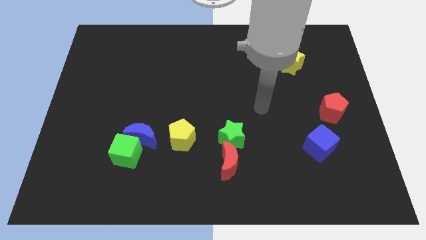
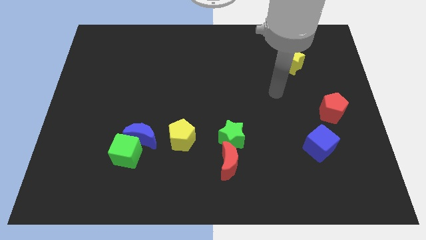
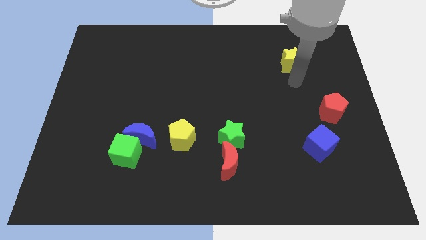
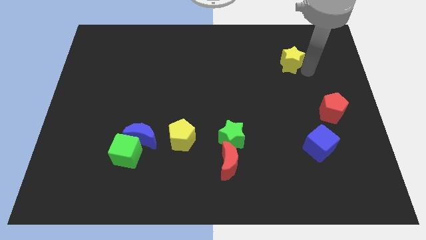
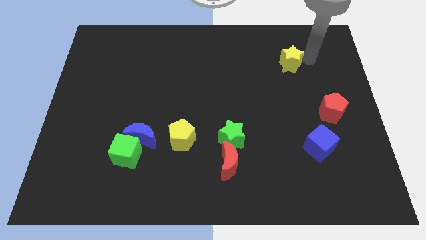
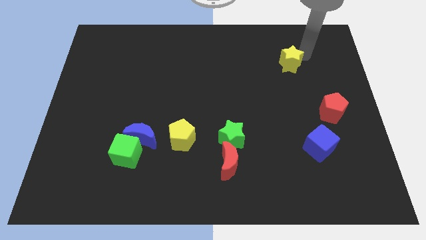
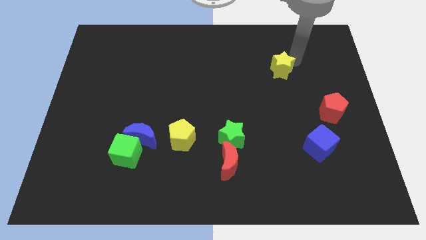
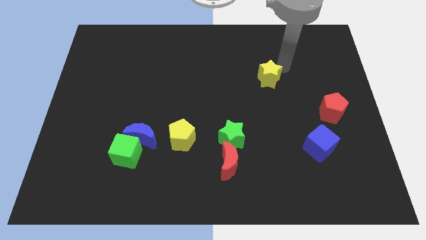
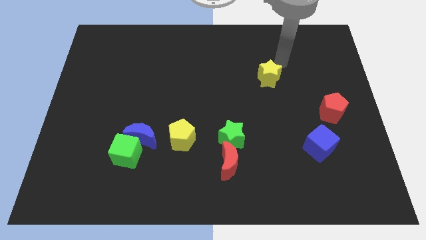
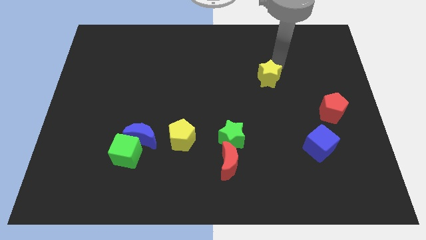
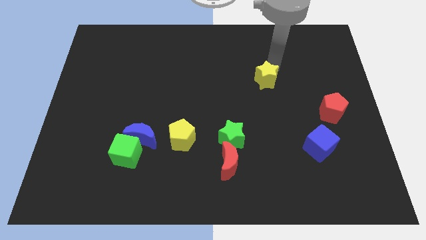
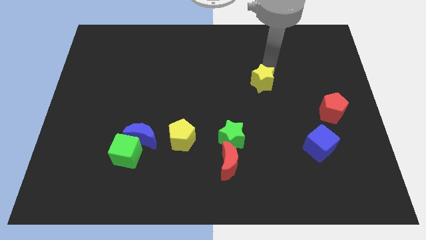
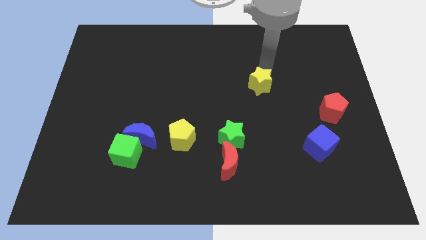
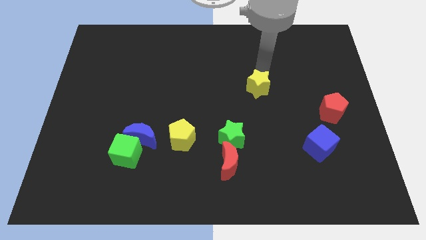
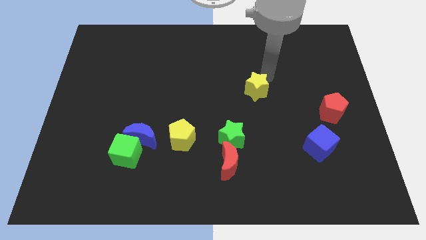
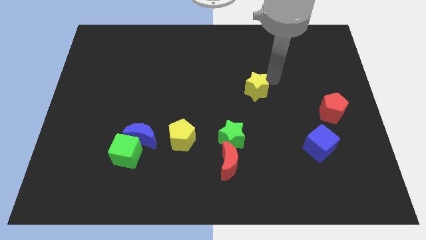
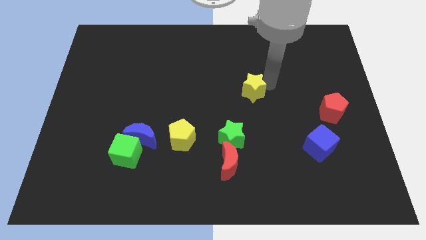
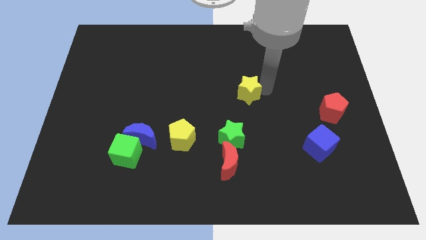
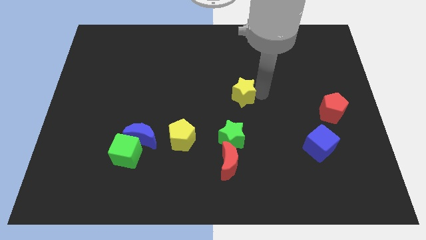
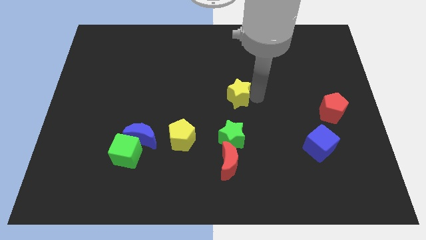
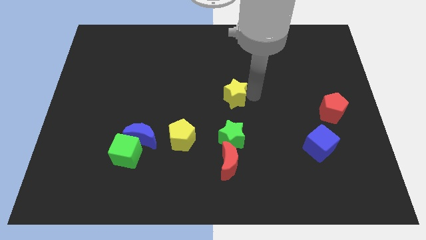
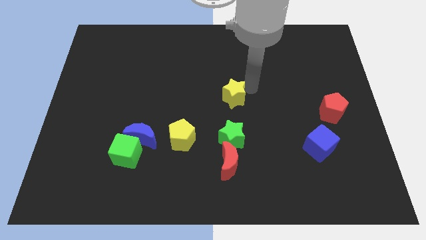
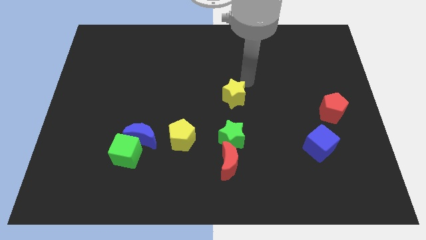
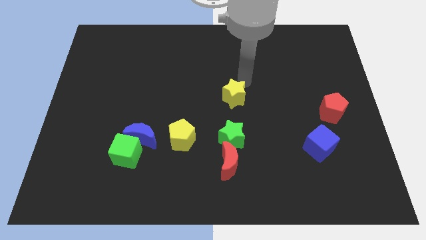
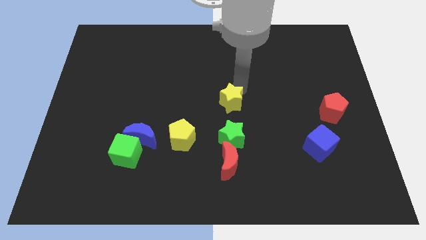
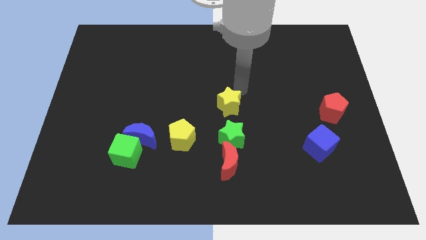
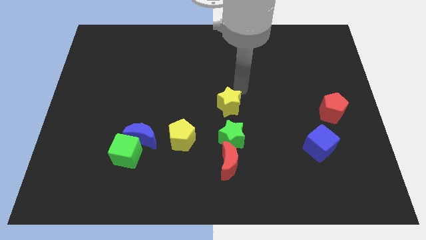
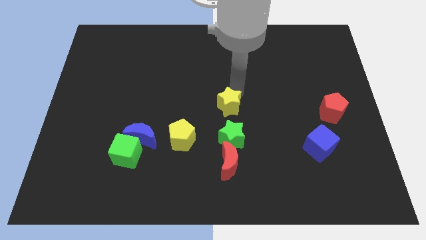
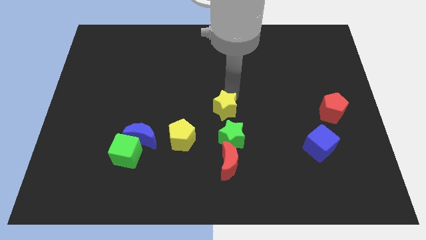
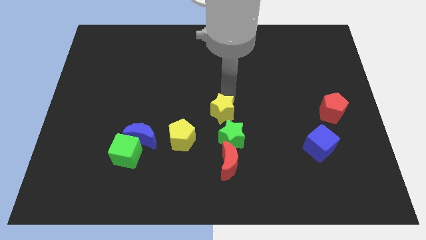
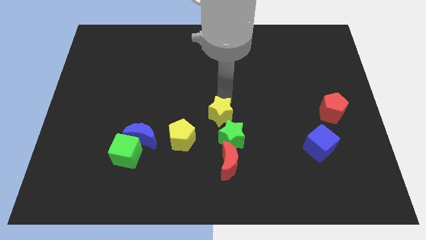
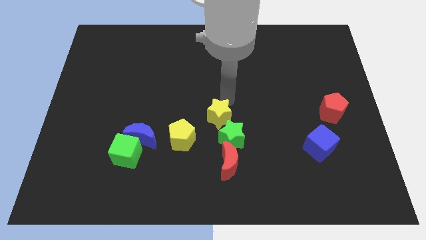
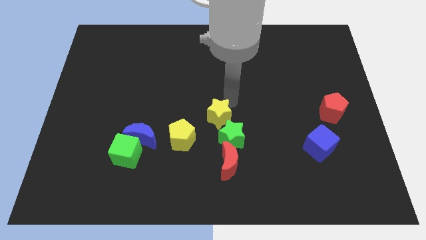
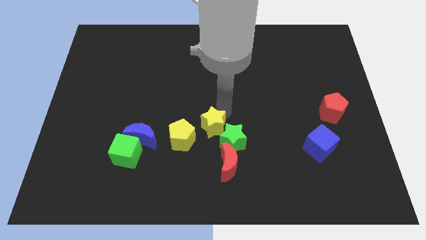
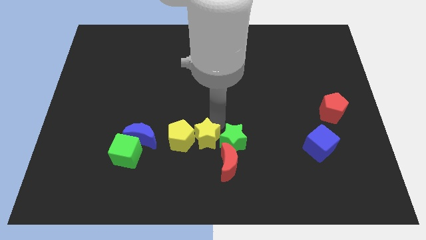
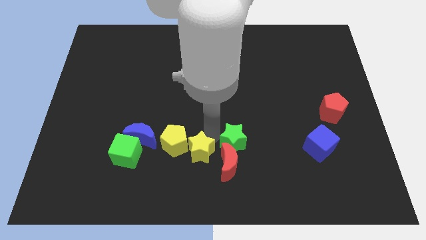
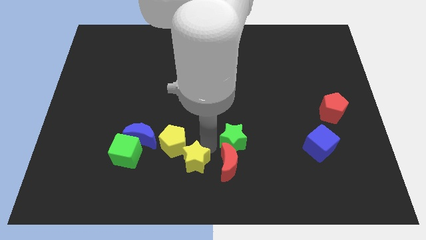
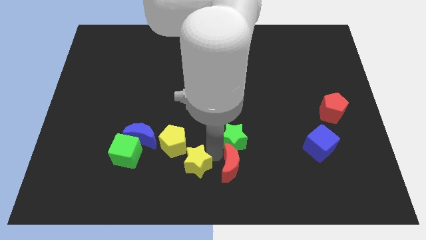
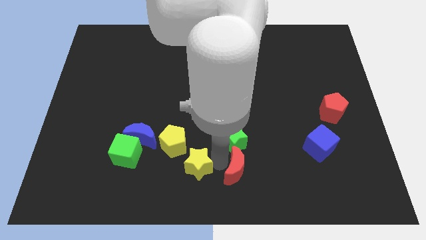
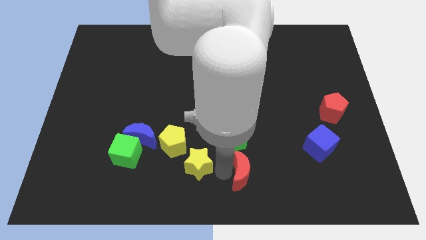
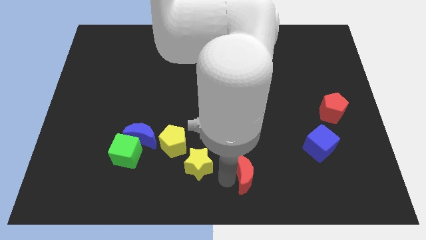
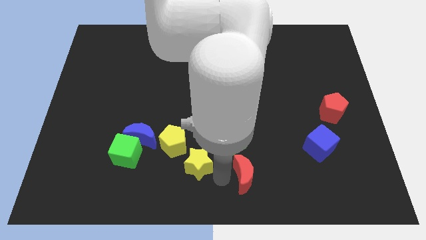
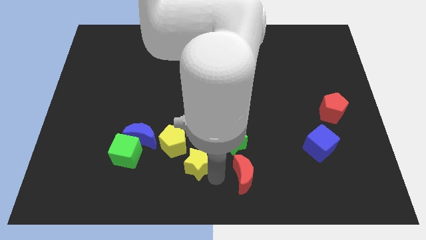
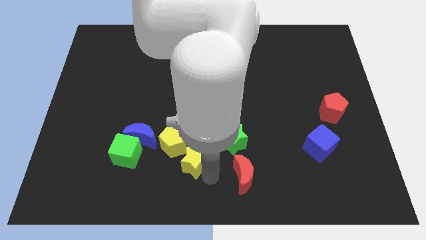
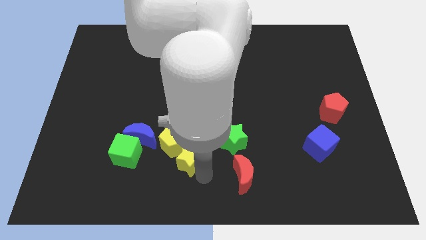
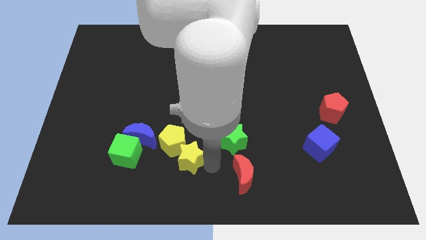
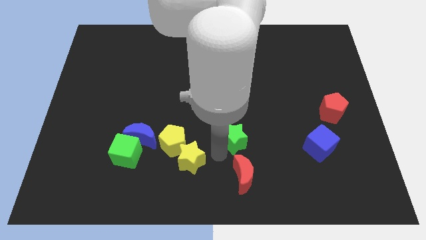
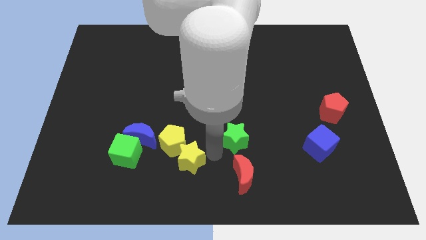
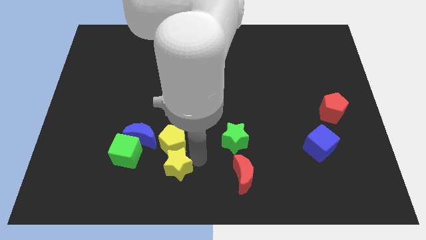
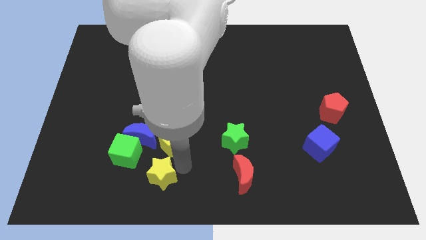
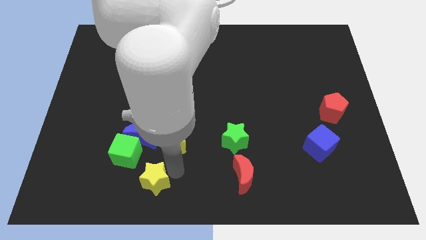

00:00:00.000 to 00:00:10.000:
push the yellow star below the blue moon

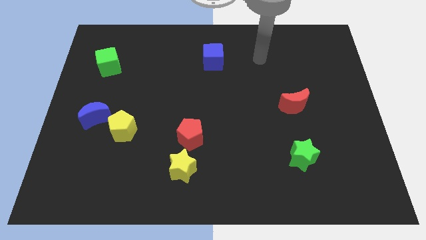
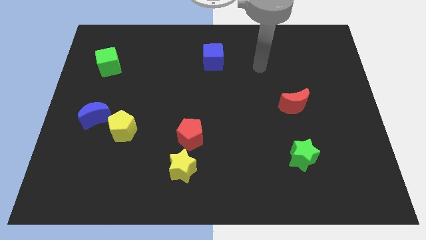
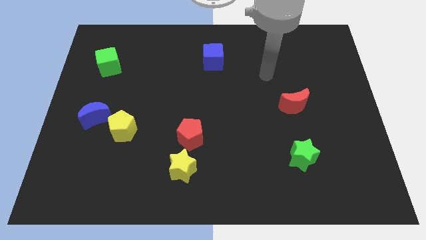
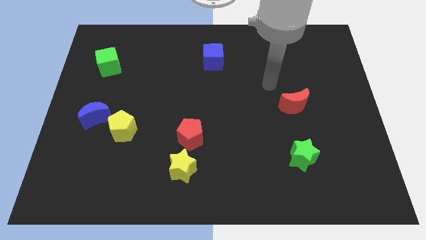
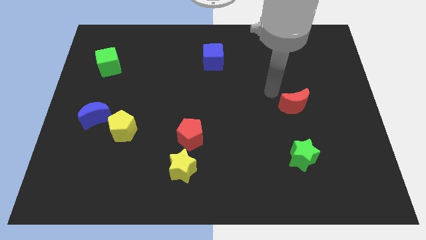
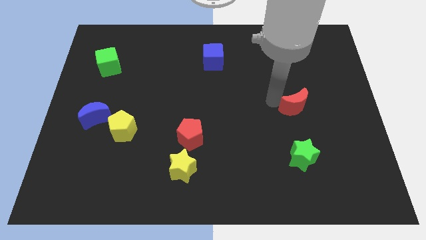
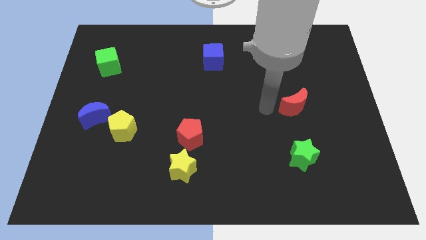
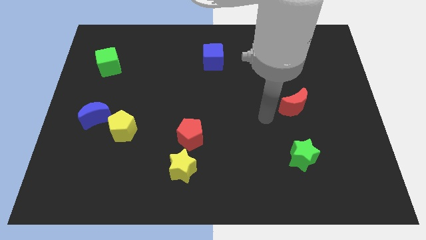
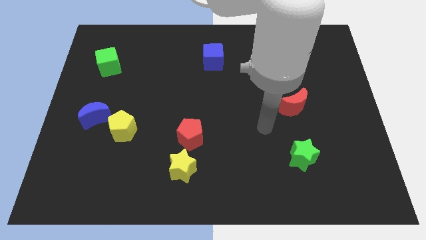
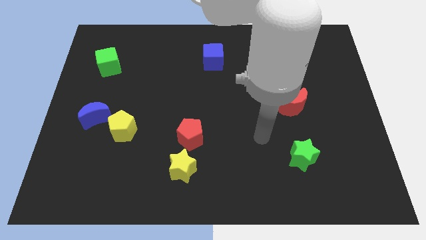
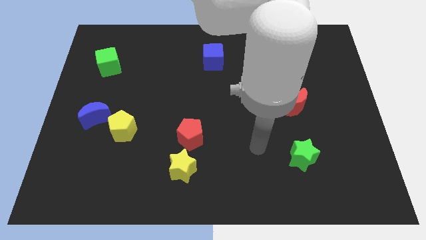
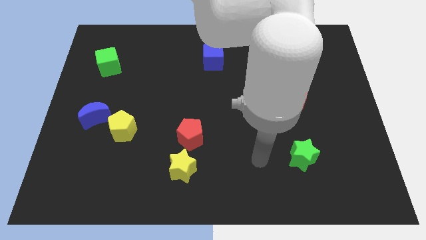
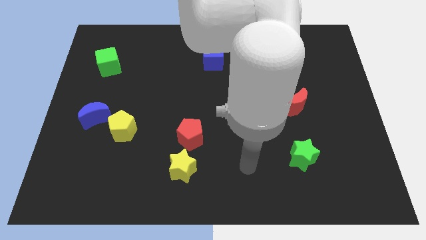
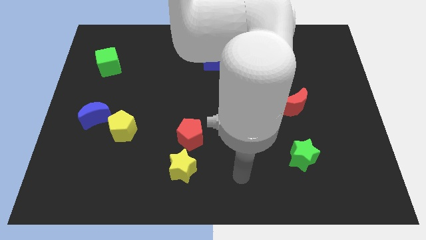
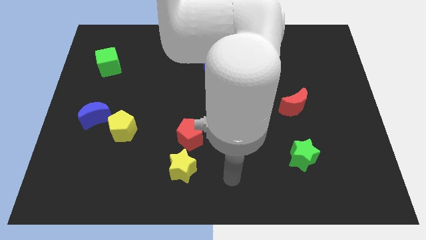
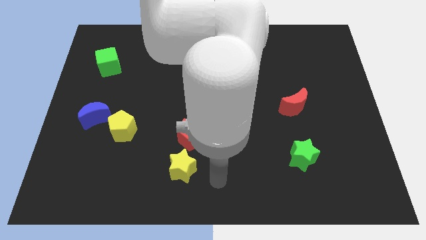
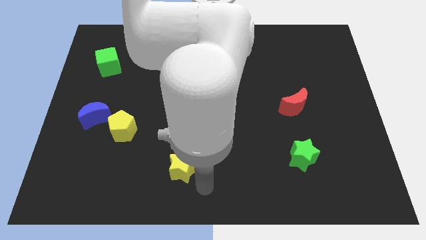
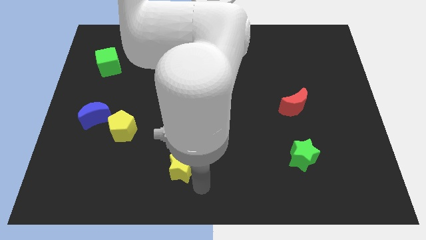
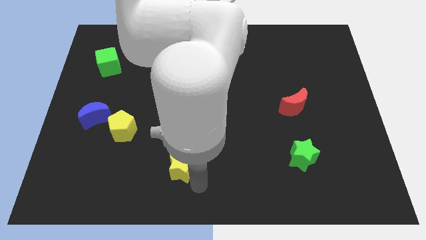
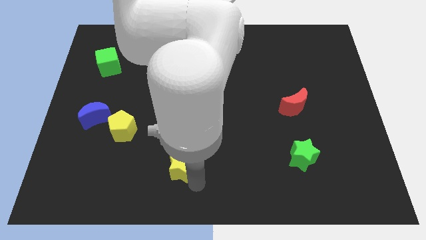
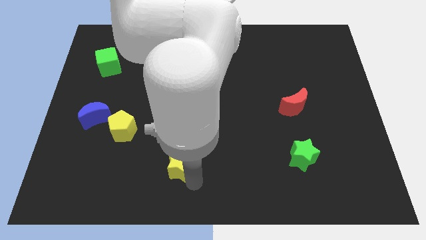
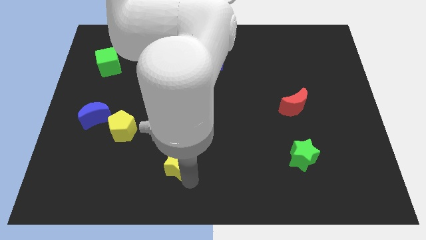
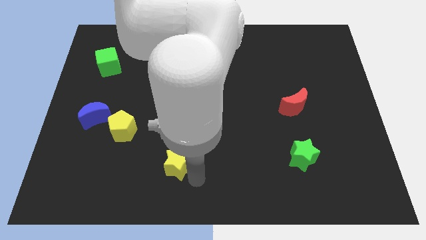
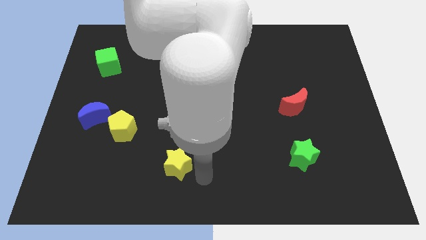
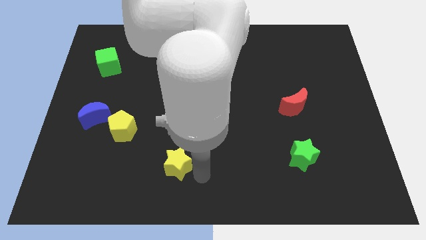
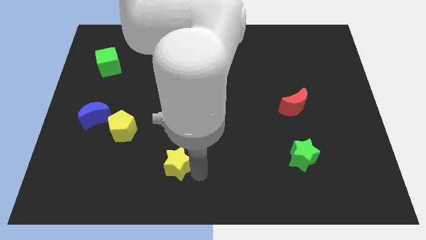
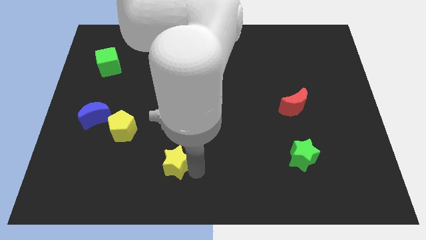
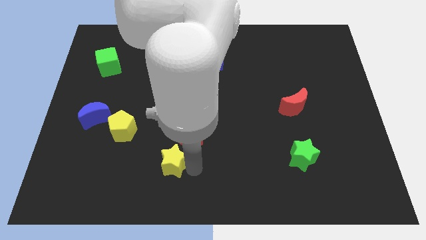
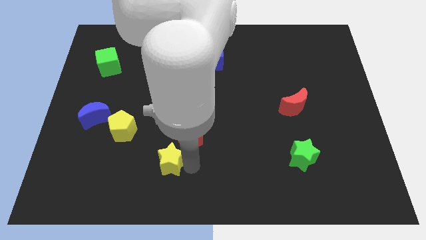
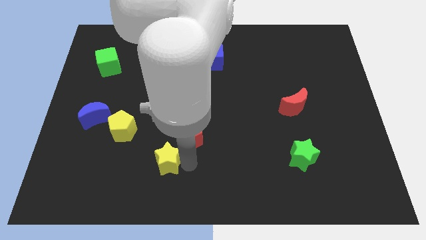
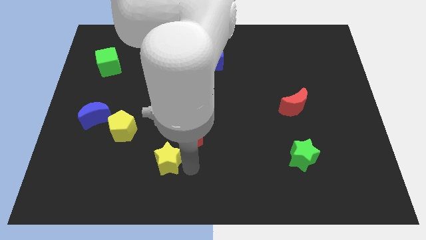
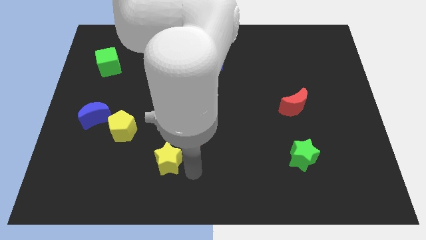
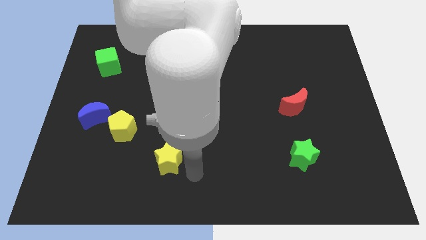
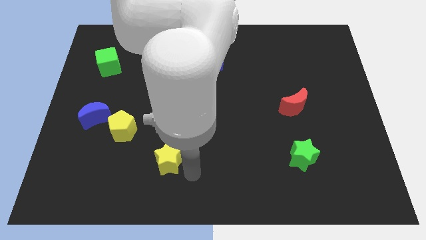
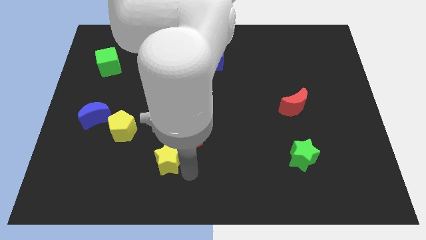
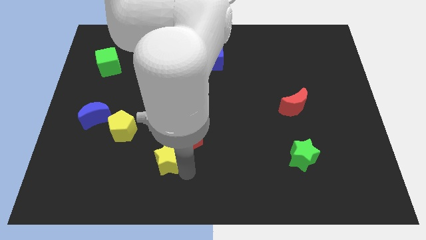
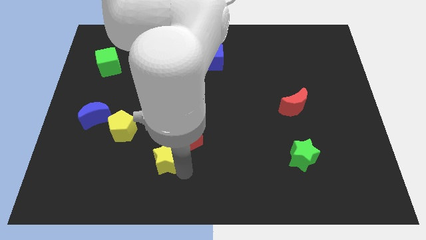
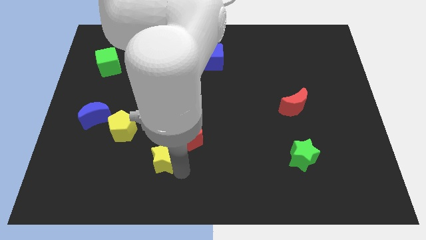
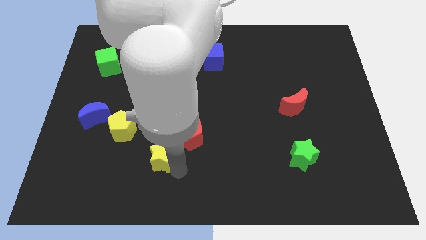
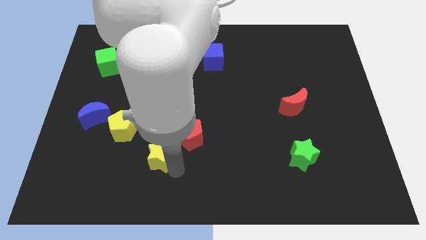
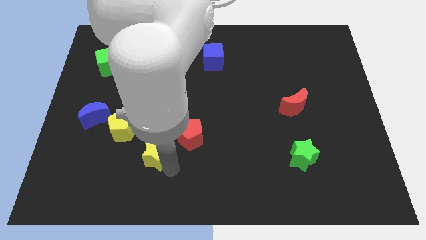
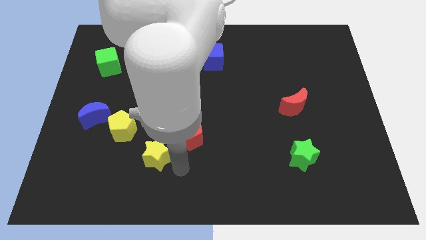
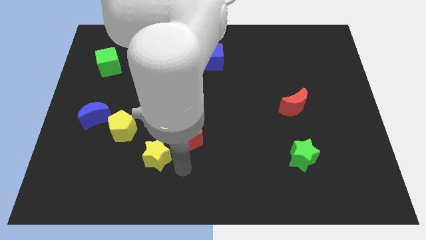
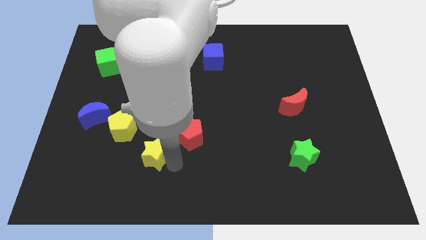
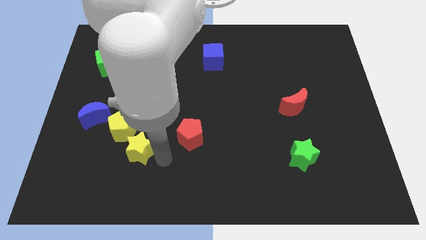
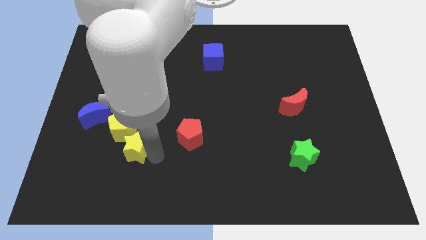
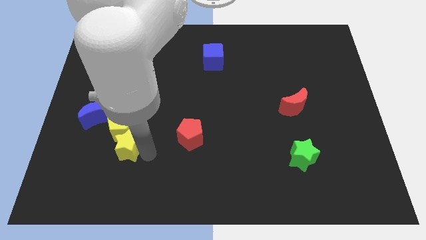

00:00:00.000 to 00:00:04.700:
put the yellow star to the bottom right side of the blue moon
